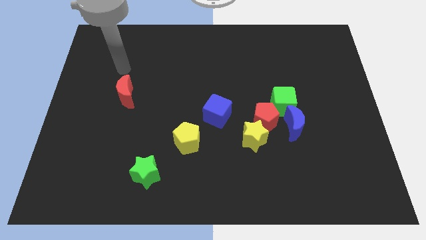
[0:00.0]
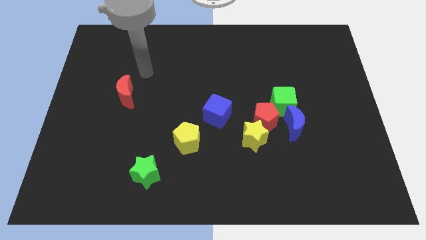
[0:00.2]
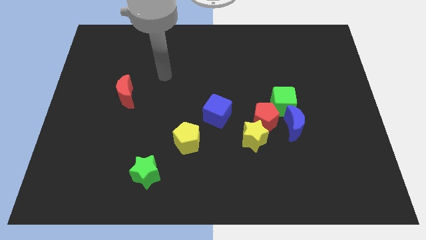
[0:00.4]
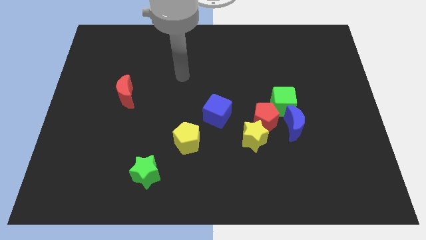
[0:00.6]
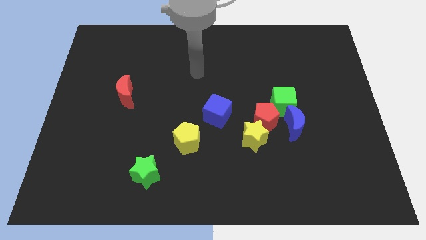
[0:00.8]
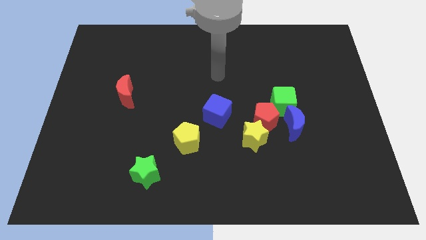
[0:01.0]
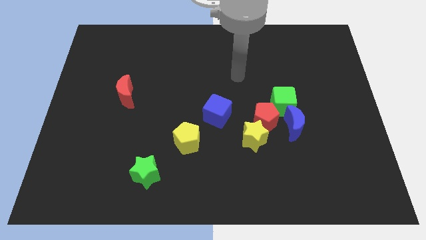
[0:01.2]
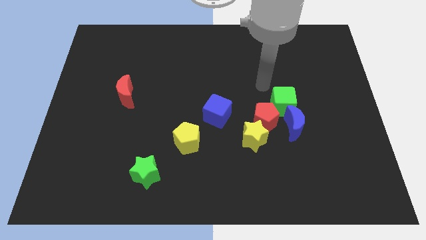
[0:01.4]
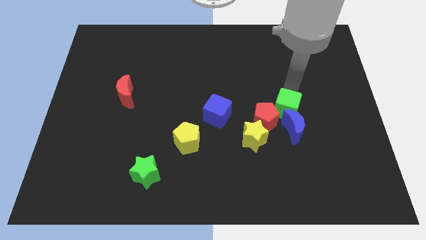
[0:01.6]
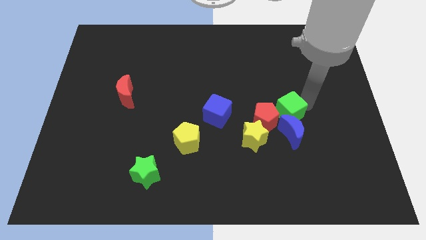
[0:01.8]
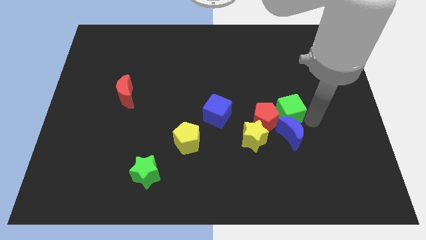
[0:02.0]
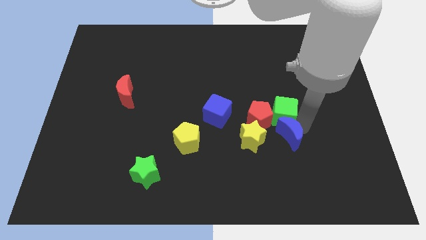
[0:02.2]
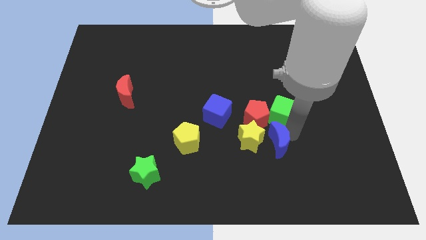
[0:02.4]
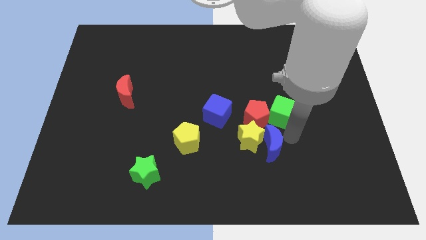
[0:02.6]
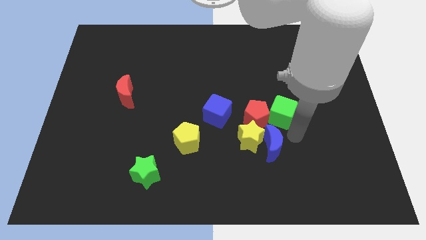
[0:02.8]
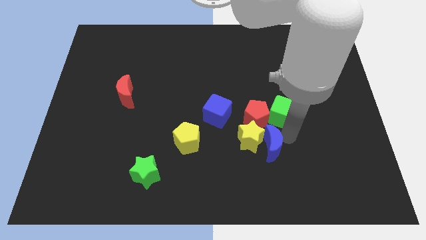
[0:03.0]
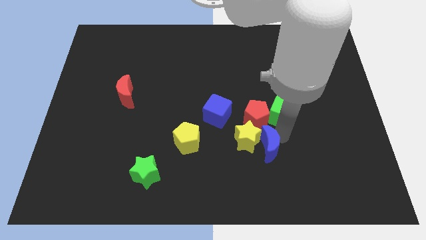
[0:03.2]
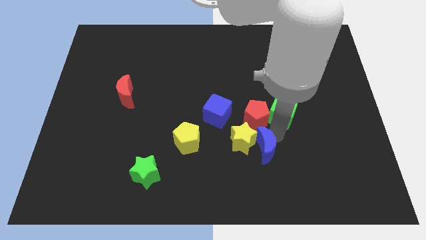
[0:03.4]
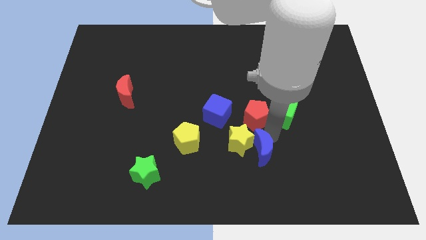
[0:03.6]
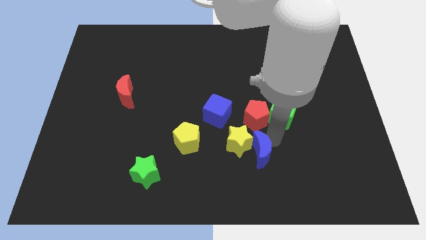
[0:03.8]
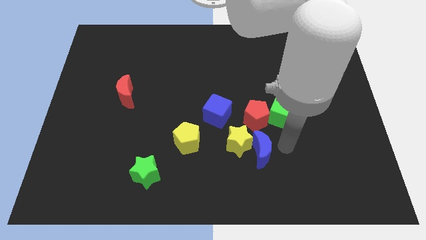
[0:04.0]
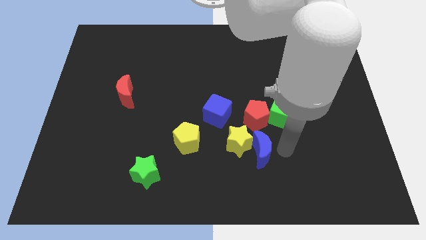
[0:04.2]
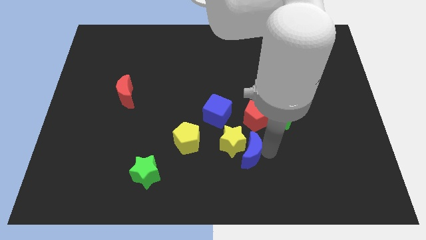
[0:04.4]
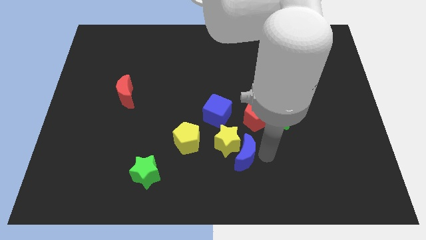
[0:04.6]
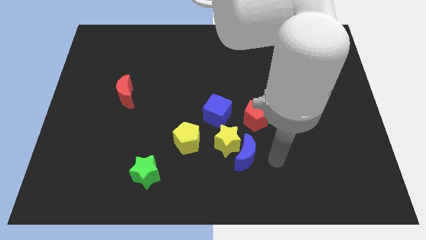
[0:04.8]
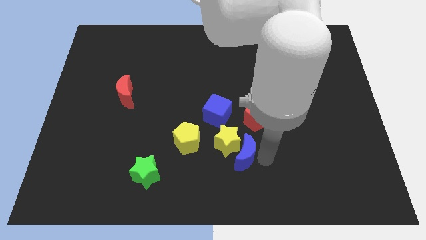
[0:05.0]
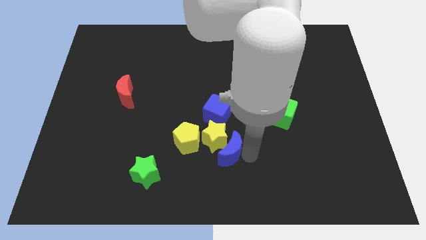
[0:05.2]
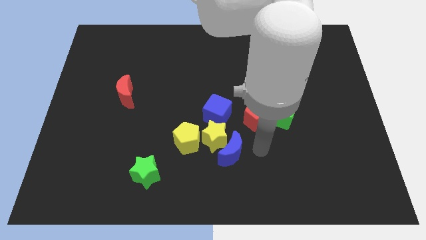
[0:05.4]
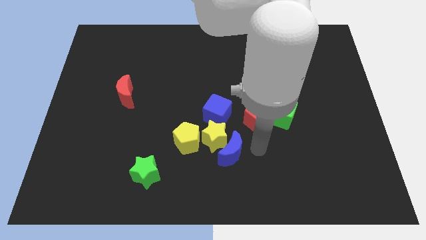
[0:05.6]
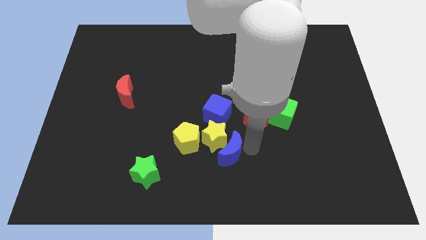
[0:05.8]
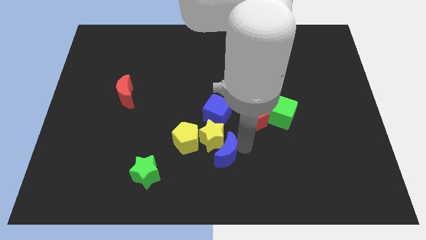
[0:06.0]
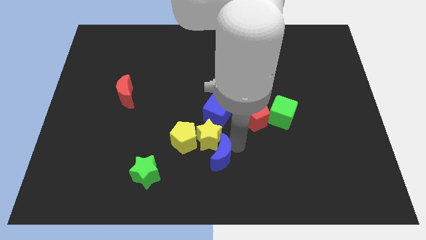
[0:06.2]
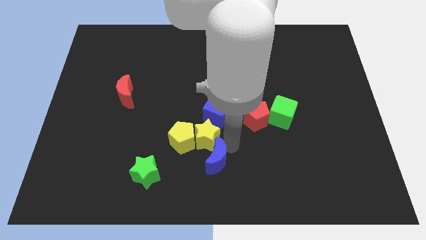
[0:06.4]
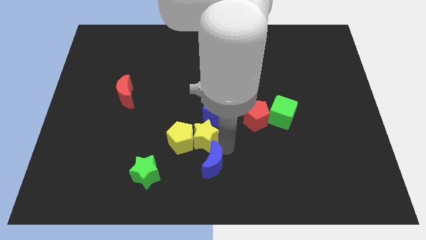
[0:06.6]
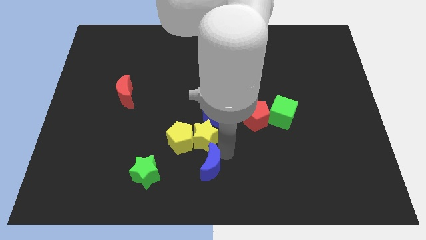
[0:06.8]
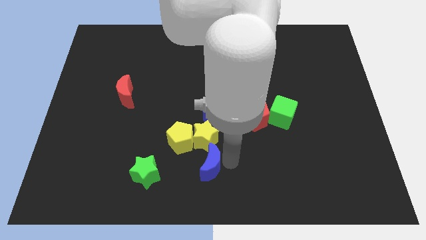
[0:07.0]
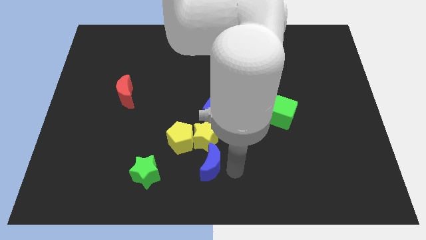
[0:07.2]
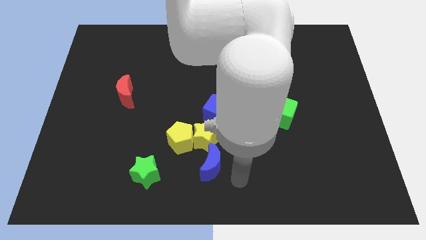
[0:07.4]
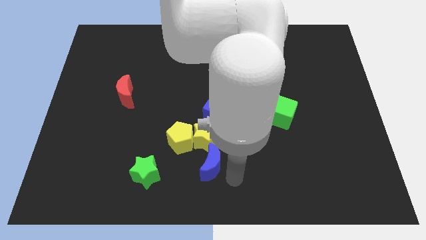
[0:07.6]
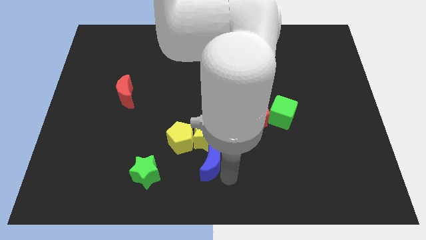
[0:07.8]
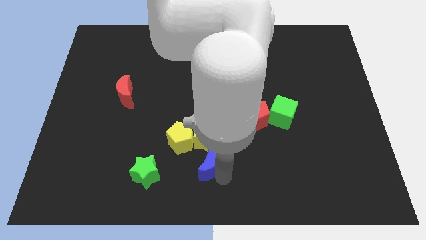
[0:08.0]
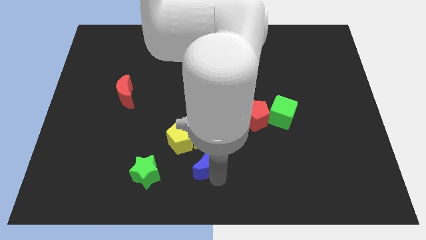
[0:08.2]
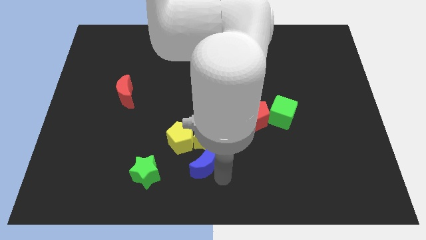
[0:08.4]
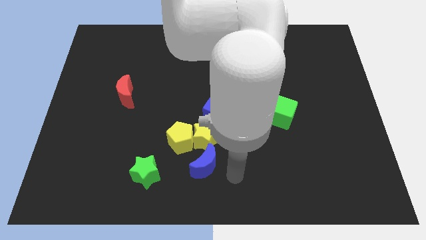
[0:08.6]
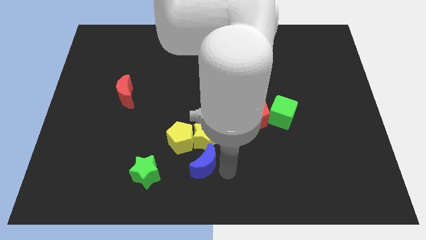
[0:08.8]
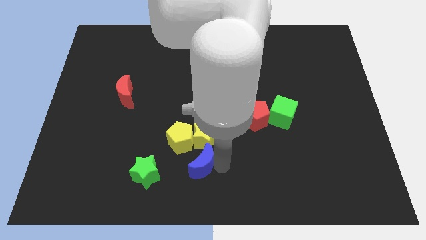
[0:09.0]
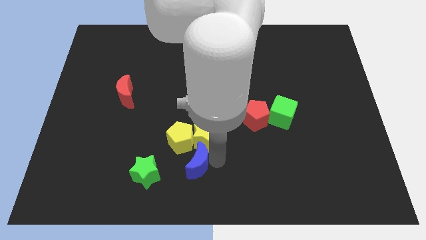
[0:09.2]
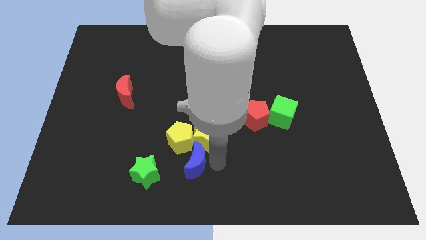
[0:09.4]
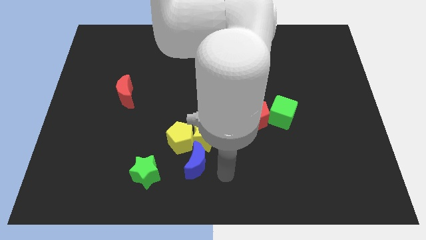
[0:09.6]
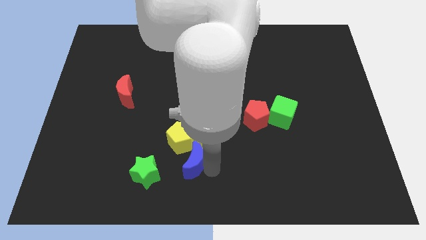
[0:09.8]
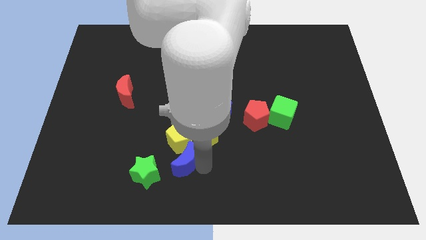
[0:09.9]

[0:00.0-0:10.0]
push the blue moon to the left

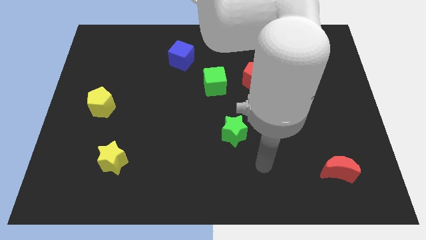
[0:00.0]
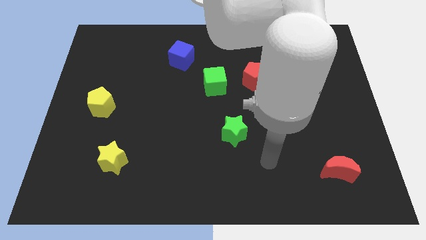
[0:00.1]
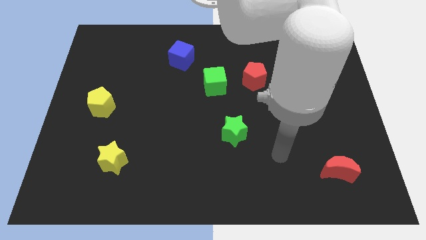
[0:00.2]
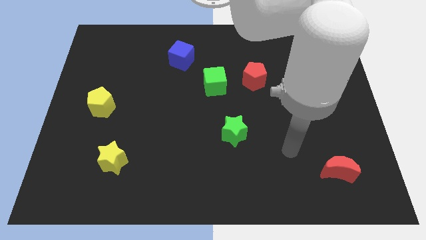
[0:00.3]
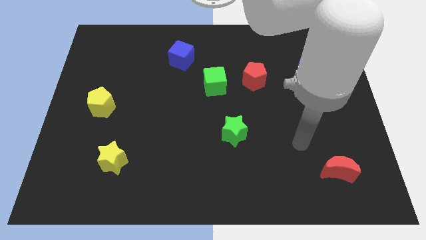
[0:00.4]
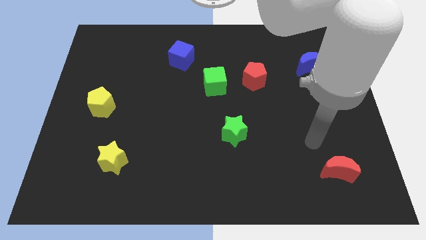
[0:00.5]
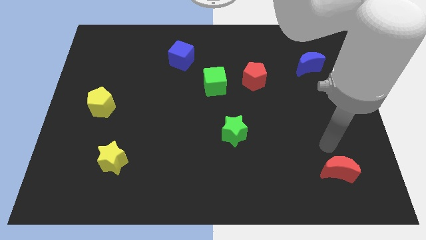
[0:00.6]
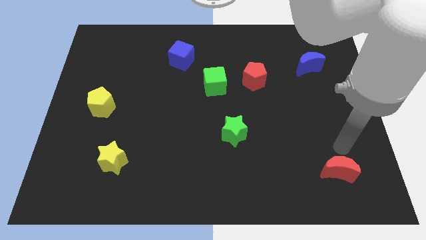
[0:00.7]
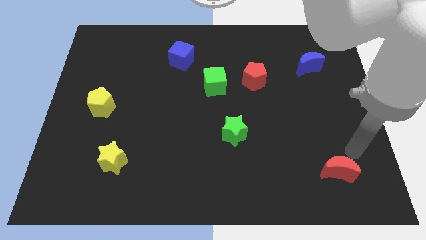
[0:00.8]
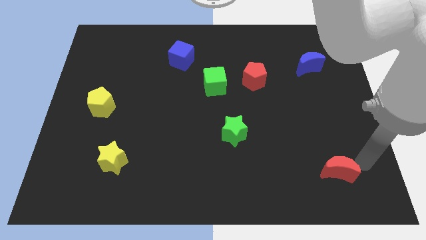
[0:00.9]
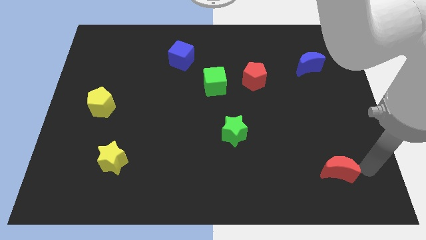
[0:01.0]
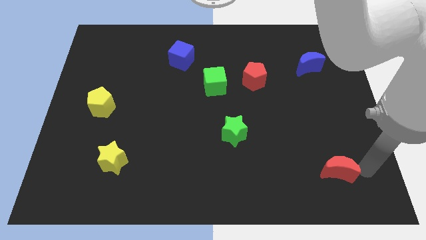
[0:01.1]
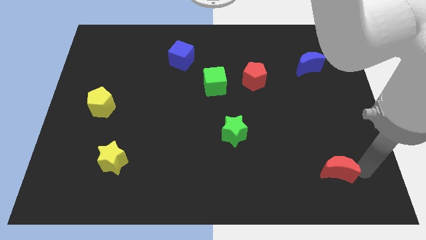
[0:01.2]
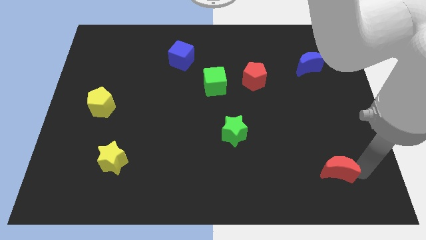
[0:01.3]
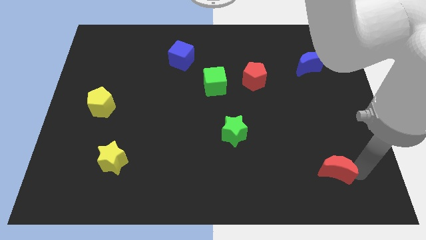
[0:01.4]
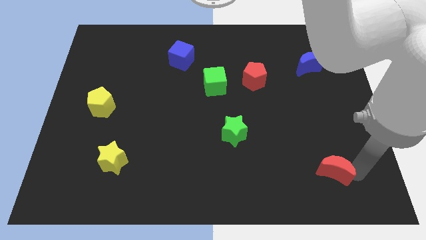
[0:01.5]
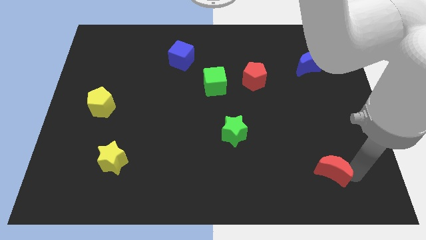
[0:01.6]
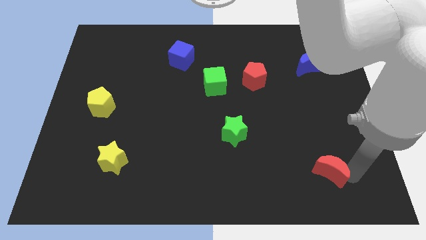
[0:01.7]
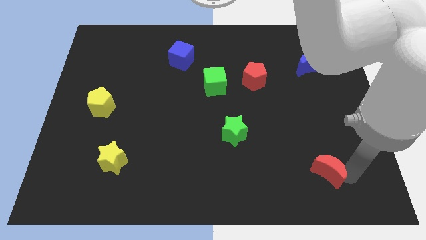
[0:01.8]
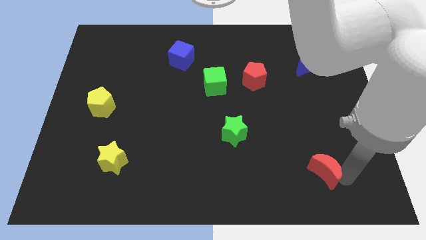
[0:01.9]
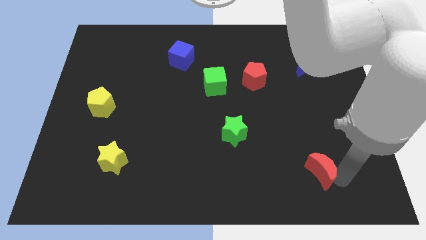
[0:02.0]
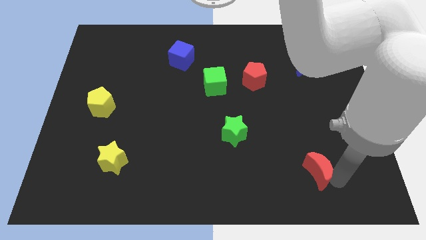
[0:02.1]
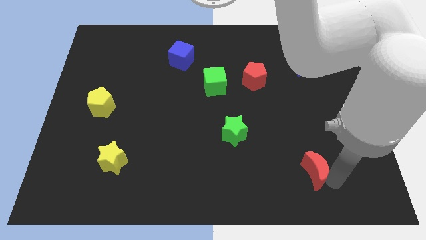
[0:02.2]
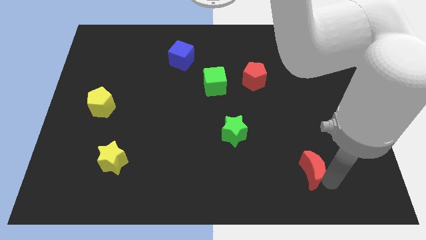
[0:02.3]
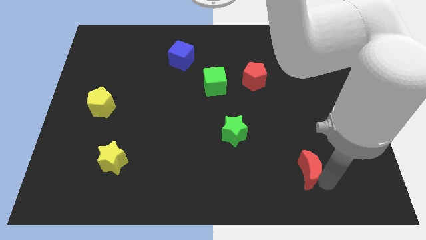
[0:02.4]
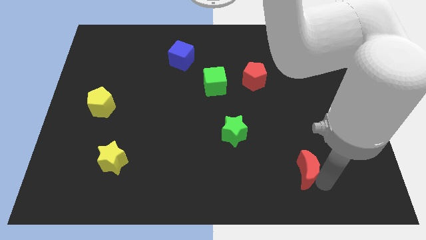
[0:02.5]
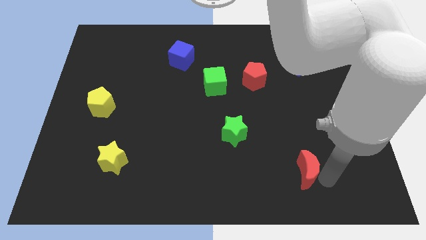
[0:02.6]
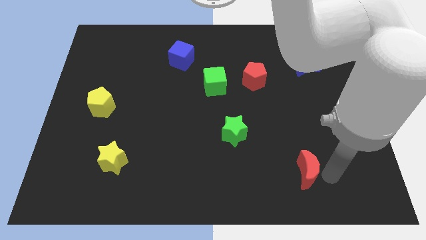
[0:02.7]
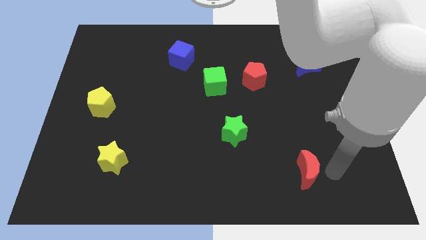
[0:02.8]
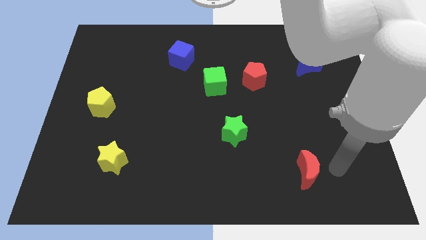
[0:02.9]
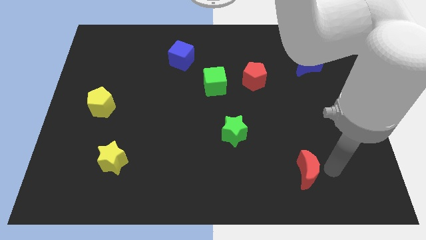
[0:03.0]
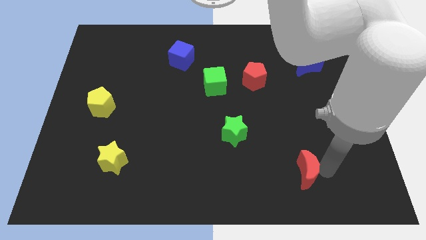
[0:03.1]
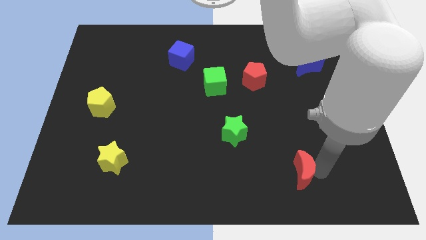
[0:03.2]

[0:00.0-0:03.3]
slide the red moon left slightly

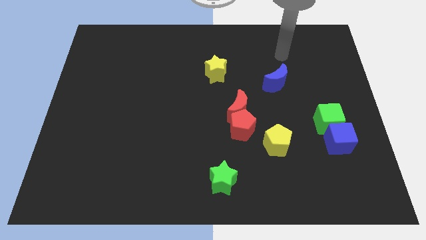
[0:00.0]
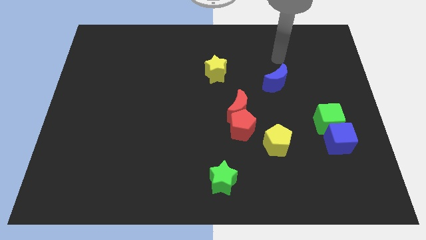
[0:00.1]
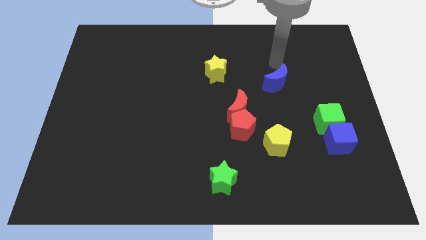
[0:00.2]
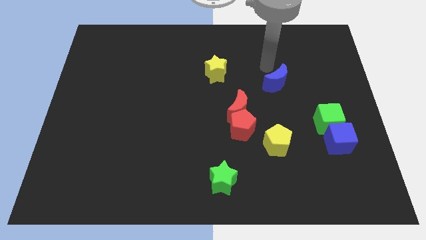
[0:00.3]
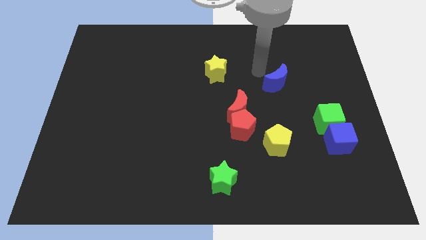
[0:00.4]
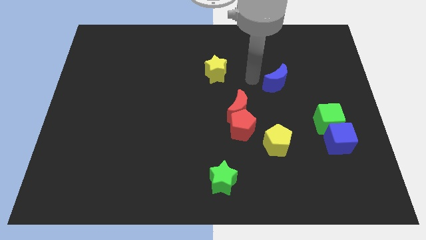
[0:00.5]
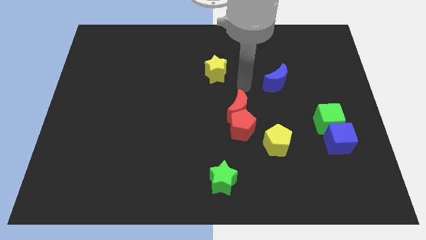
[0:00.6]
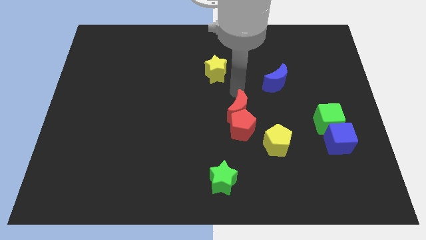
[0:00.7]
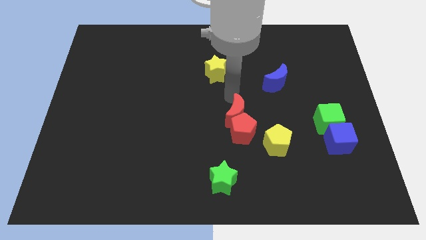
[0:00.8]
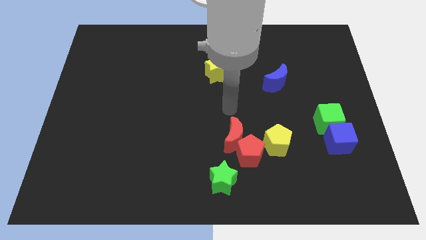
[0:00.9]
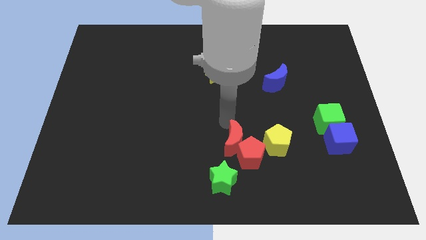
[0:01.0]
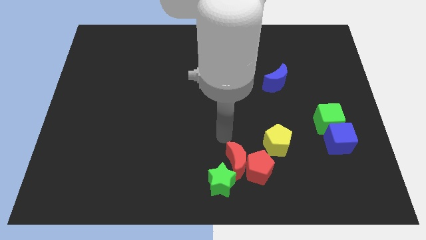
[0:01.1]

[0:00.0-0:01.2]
slightly push the red pentagon diagonally downwards and right
